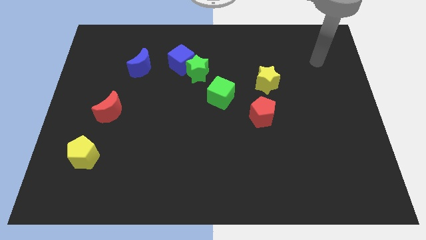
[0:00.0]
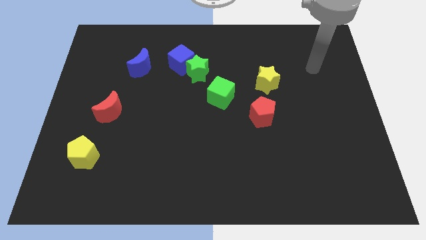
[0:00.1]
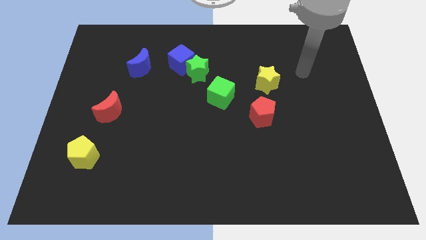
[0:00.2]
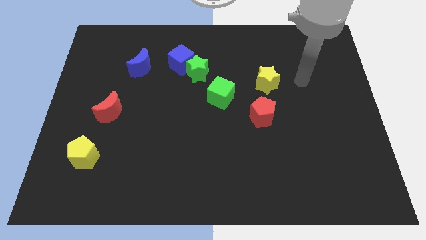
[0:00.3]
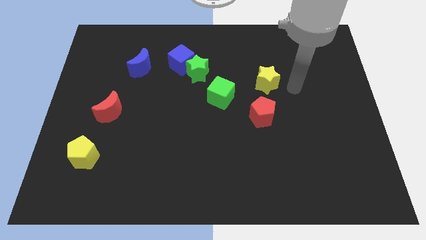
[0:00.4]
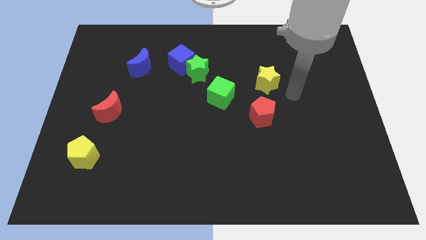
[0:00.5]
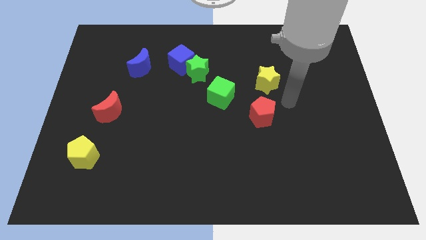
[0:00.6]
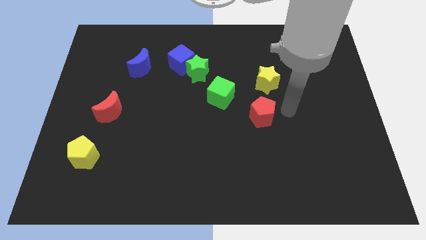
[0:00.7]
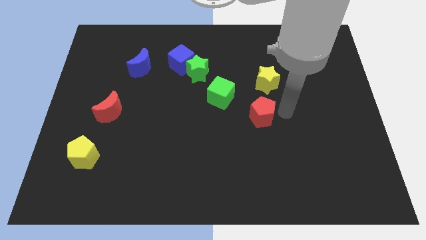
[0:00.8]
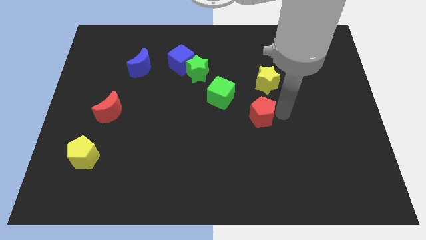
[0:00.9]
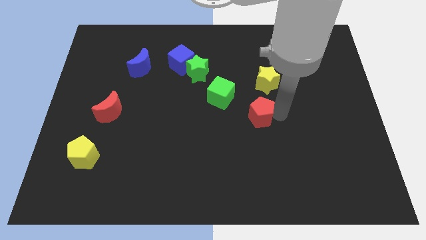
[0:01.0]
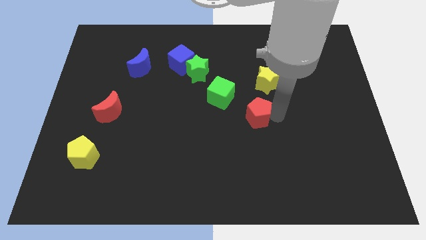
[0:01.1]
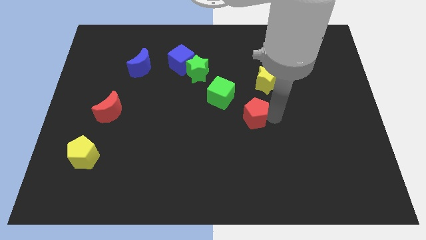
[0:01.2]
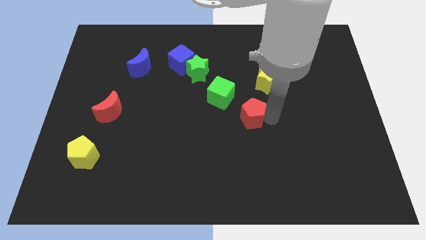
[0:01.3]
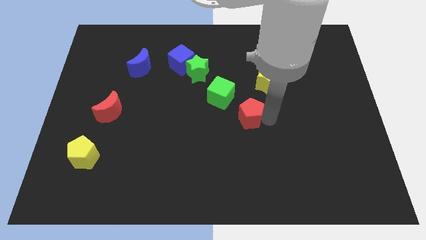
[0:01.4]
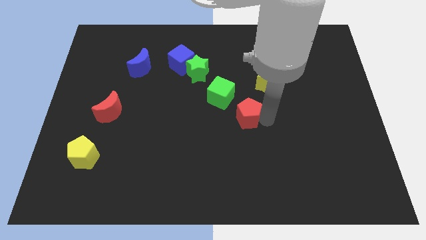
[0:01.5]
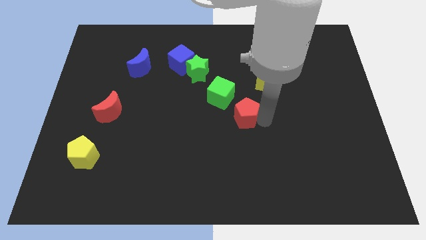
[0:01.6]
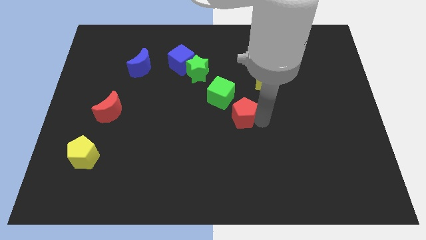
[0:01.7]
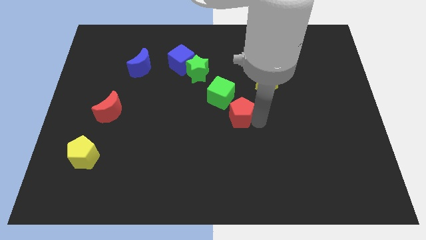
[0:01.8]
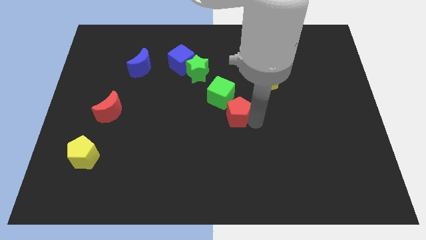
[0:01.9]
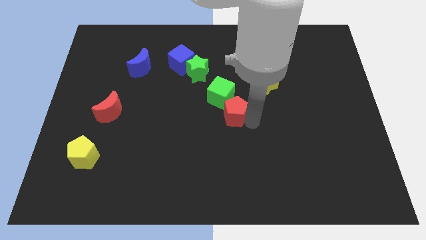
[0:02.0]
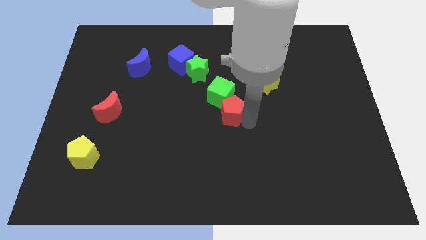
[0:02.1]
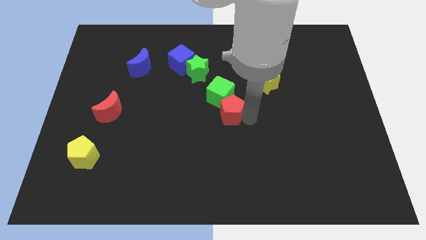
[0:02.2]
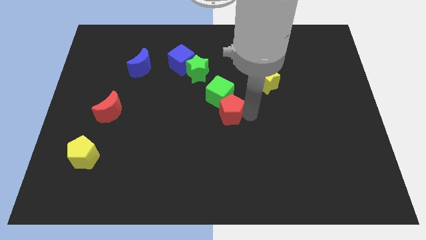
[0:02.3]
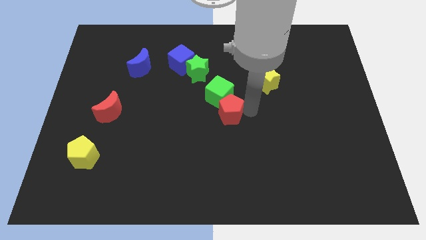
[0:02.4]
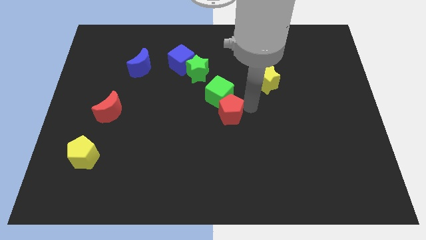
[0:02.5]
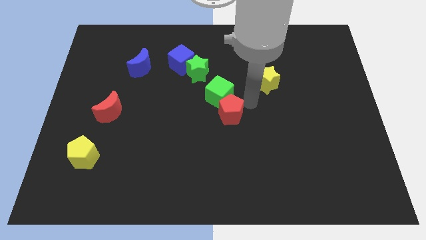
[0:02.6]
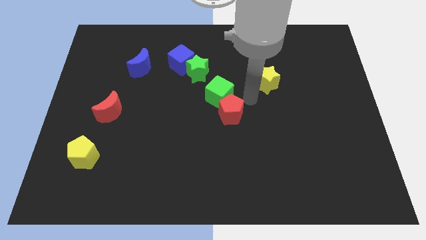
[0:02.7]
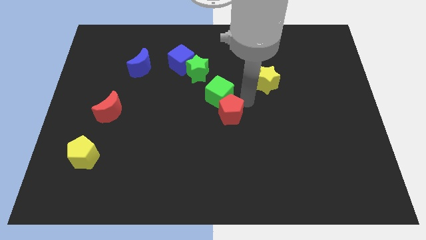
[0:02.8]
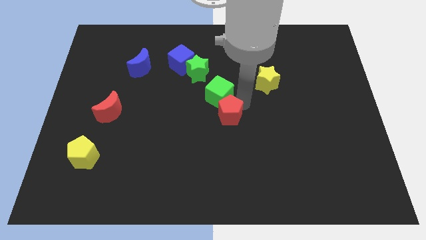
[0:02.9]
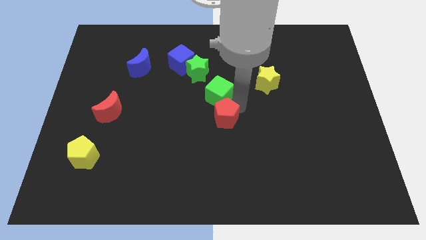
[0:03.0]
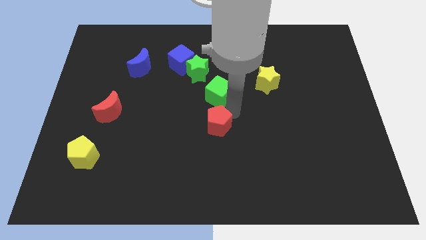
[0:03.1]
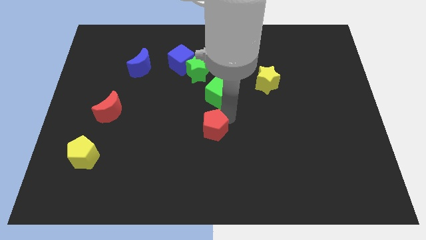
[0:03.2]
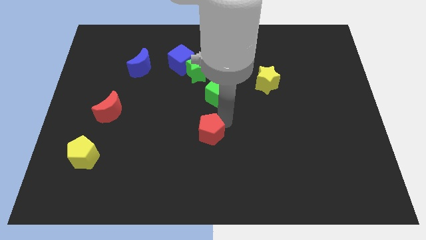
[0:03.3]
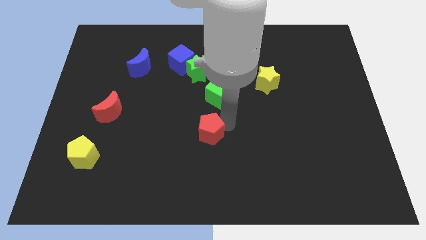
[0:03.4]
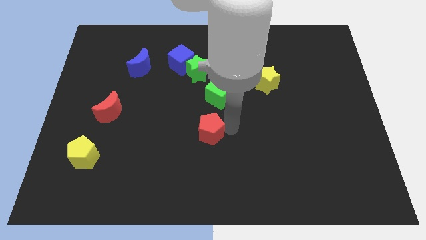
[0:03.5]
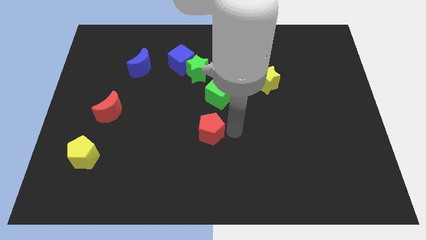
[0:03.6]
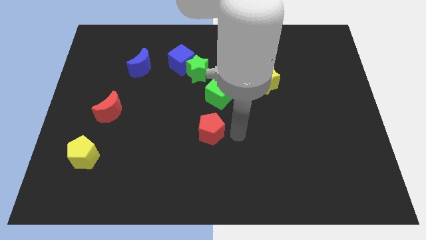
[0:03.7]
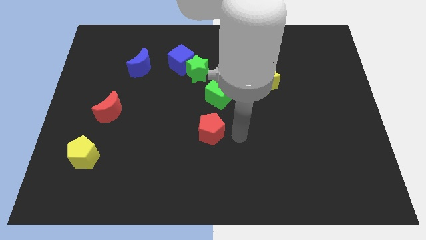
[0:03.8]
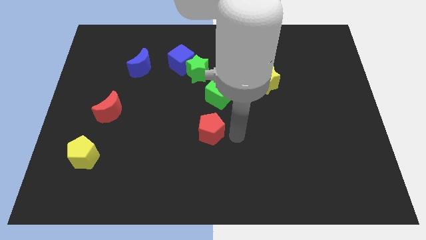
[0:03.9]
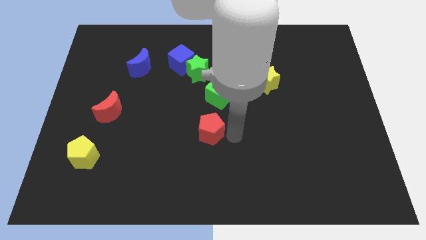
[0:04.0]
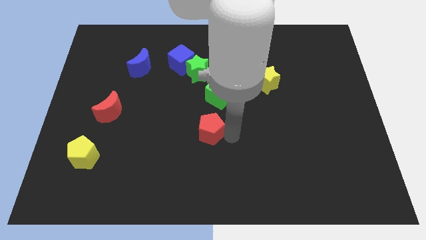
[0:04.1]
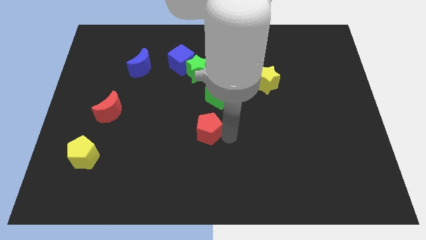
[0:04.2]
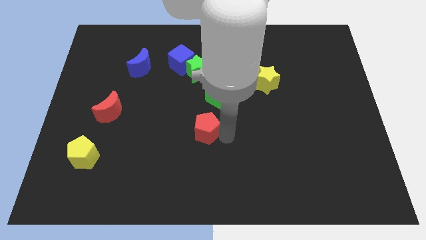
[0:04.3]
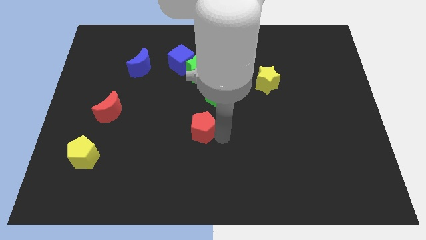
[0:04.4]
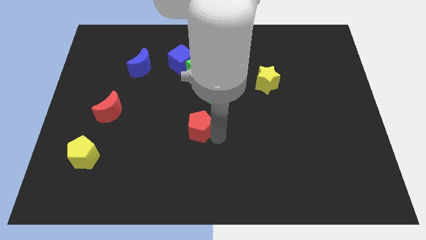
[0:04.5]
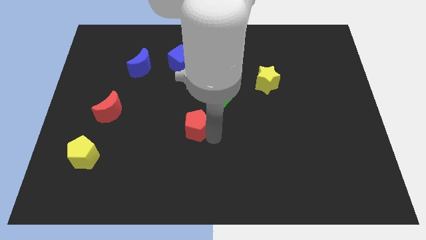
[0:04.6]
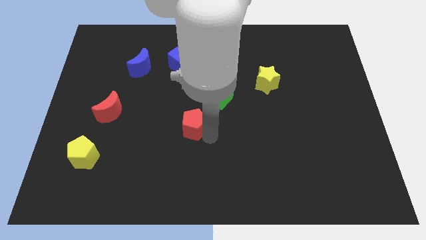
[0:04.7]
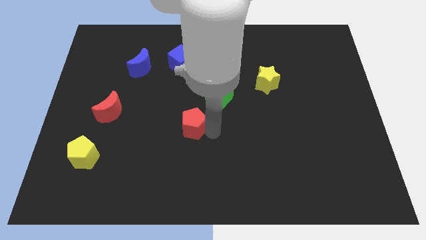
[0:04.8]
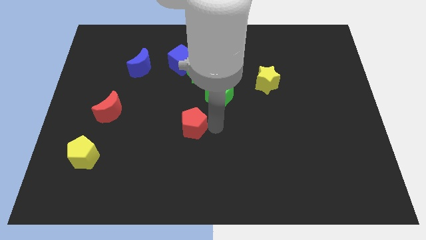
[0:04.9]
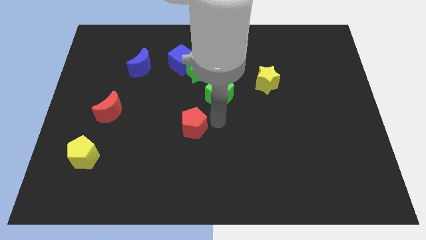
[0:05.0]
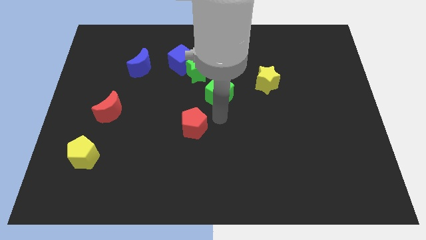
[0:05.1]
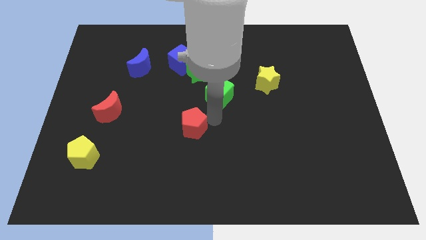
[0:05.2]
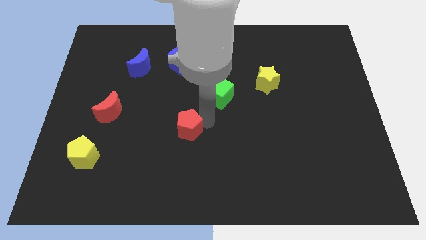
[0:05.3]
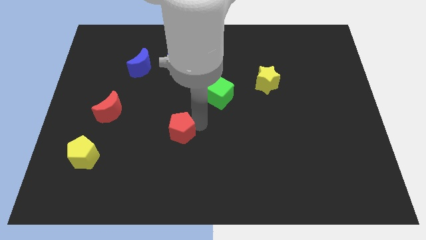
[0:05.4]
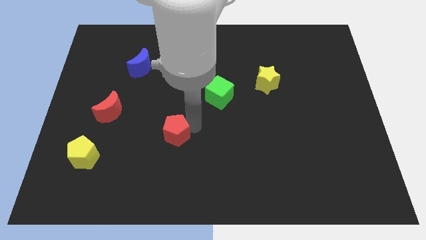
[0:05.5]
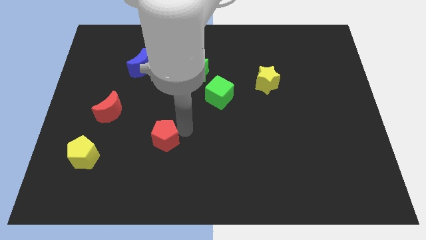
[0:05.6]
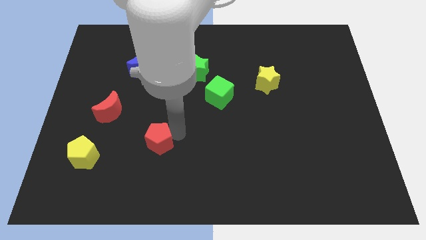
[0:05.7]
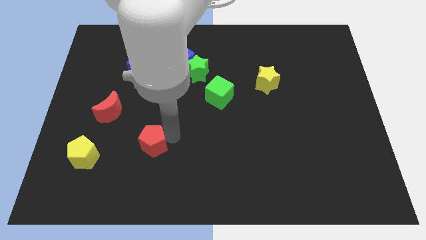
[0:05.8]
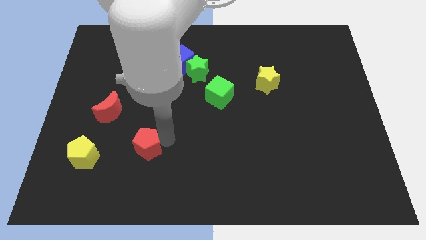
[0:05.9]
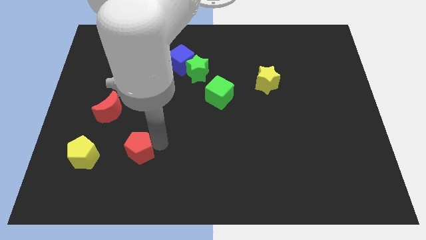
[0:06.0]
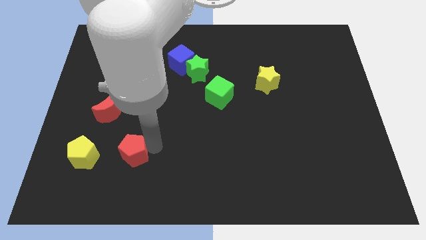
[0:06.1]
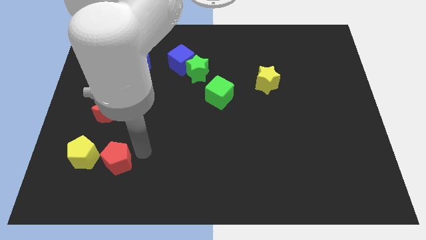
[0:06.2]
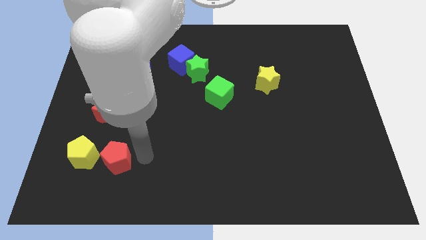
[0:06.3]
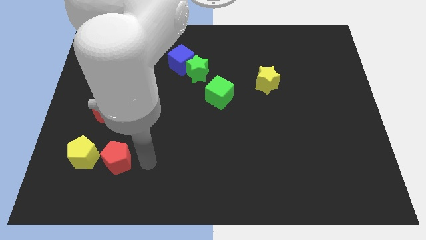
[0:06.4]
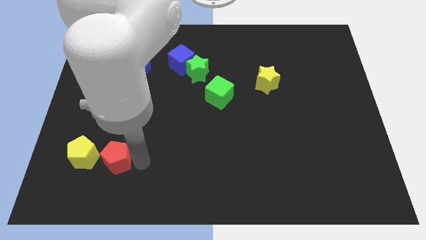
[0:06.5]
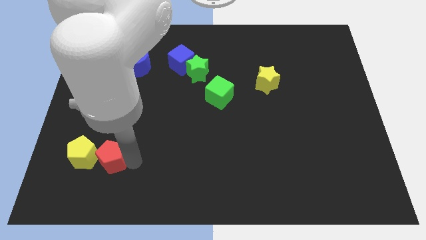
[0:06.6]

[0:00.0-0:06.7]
put the red pentagon next to the yellow pentagon

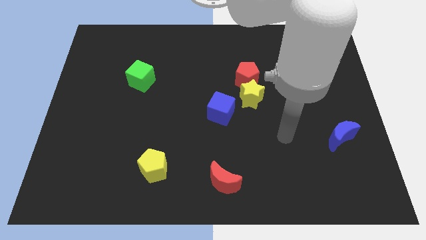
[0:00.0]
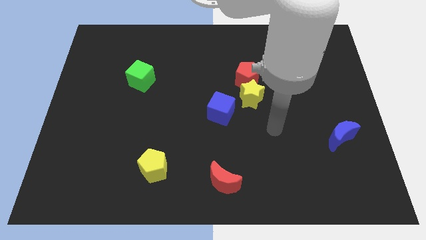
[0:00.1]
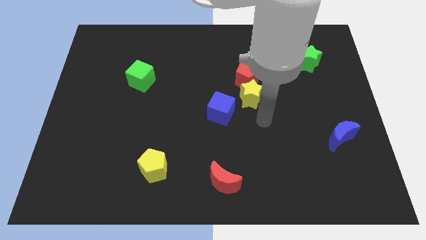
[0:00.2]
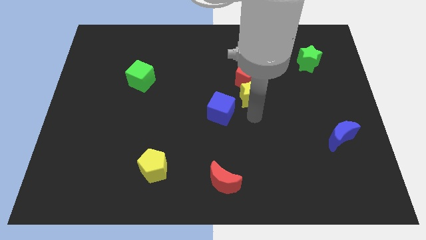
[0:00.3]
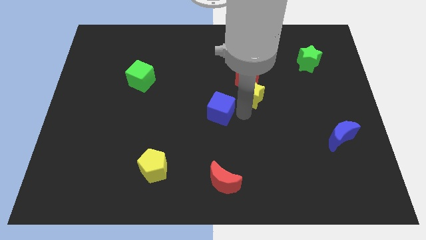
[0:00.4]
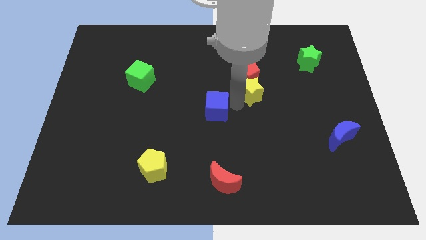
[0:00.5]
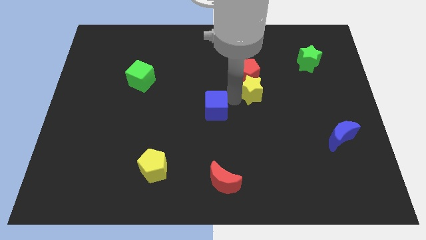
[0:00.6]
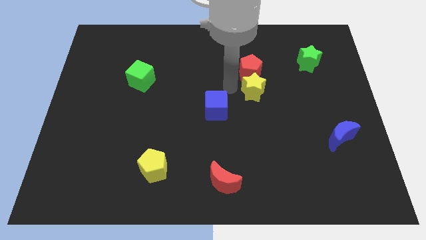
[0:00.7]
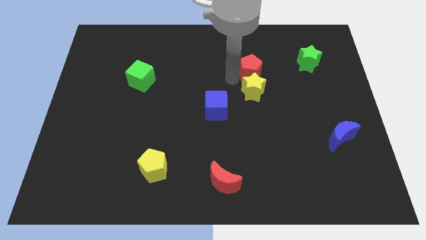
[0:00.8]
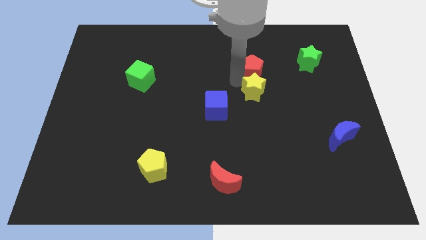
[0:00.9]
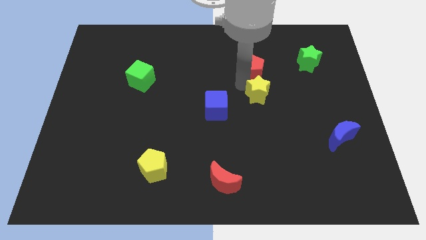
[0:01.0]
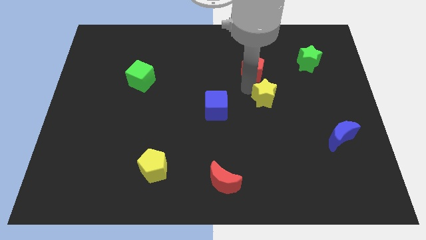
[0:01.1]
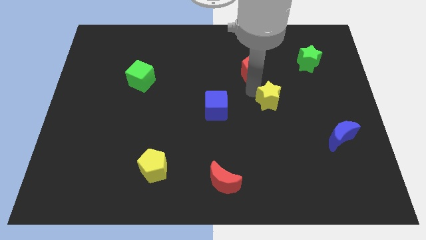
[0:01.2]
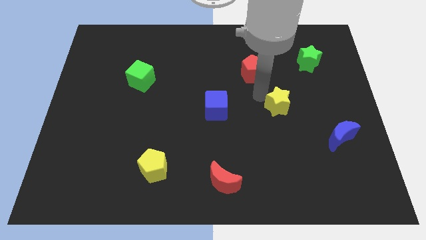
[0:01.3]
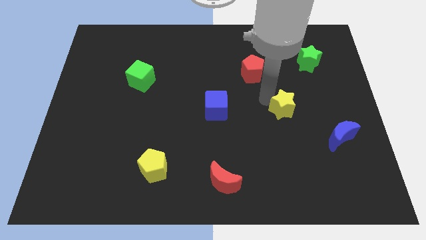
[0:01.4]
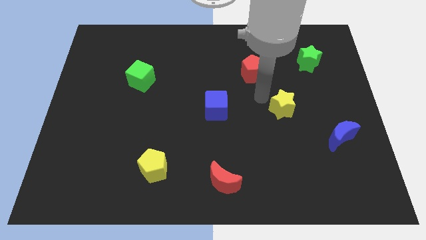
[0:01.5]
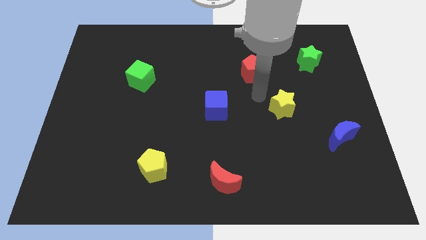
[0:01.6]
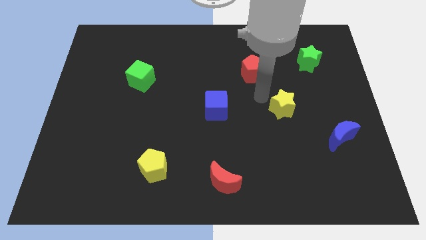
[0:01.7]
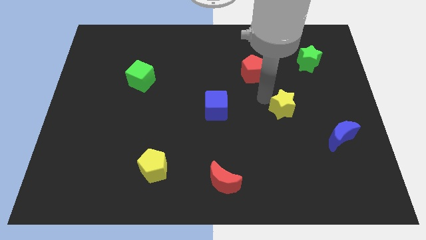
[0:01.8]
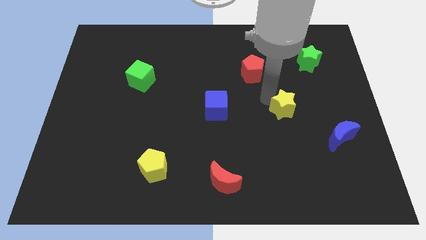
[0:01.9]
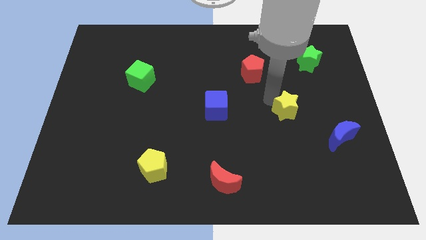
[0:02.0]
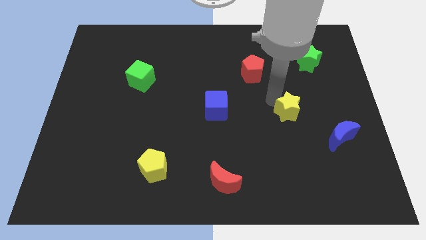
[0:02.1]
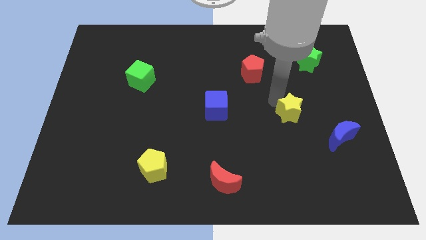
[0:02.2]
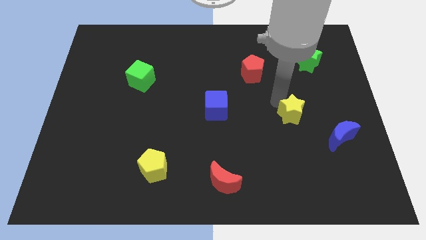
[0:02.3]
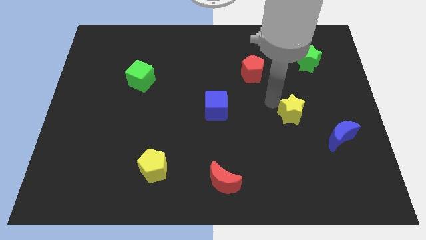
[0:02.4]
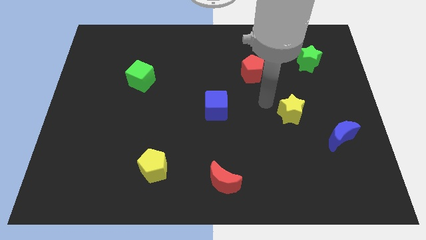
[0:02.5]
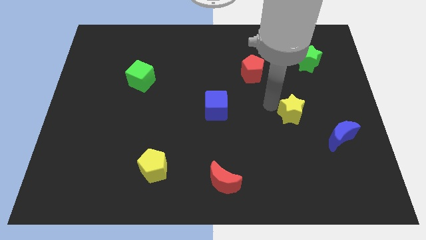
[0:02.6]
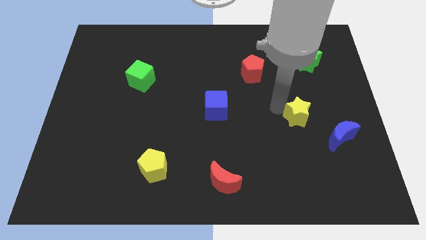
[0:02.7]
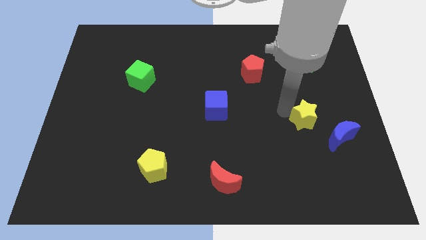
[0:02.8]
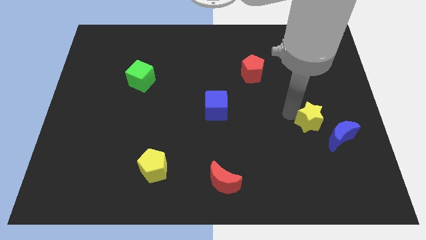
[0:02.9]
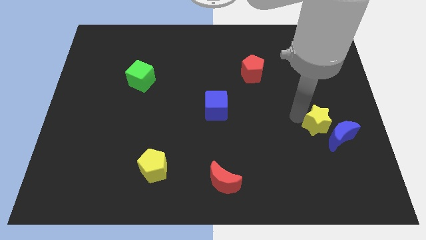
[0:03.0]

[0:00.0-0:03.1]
put the yellow star towards the blue moon
